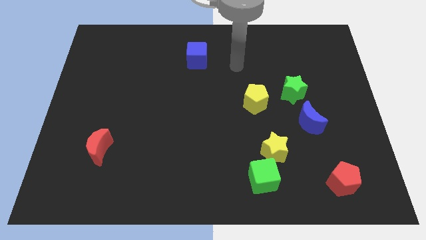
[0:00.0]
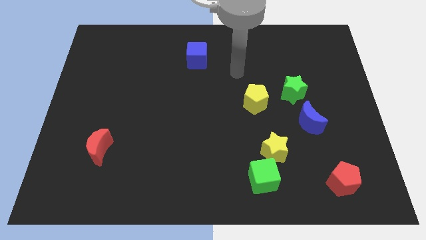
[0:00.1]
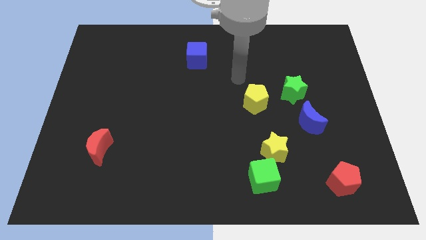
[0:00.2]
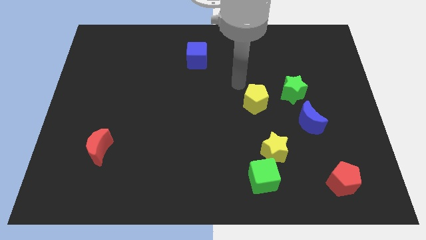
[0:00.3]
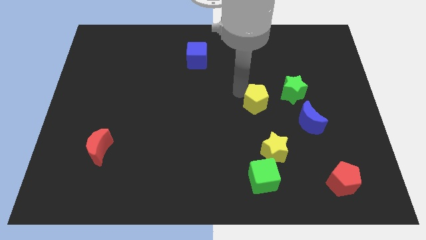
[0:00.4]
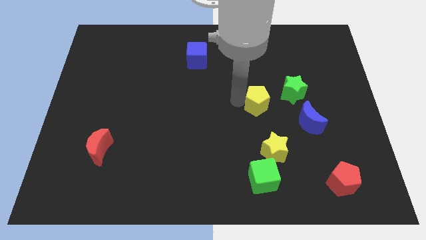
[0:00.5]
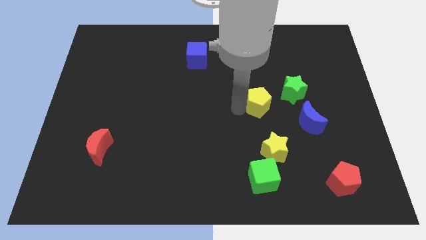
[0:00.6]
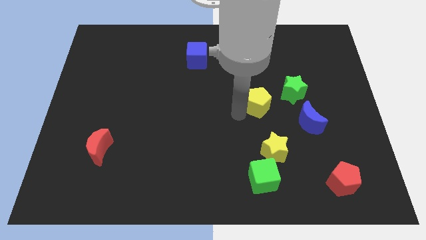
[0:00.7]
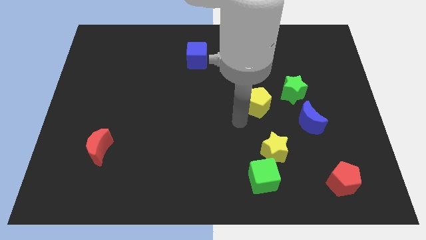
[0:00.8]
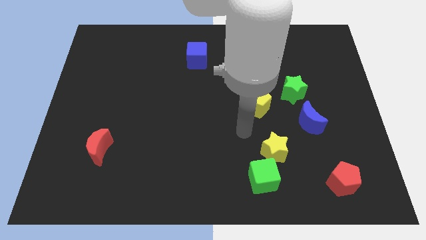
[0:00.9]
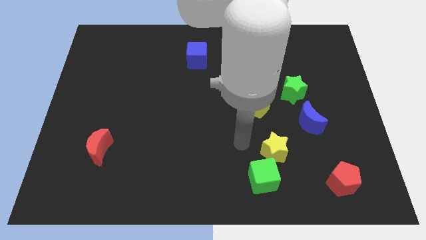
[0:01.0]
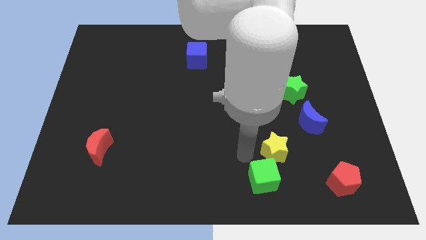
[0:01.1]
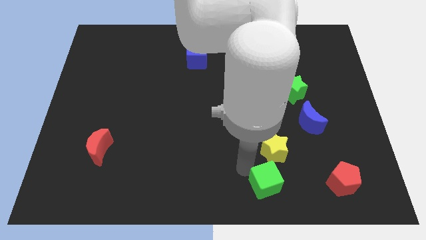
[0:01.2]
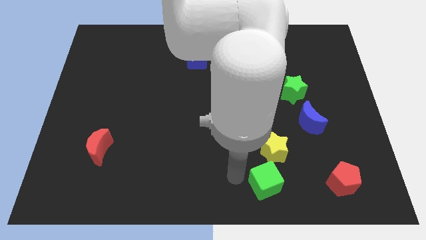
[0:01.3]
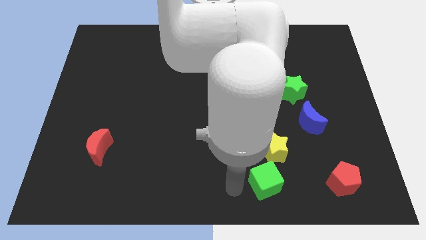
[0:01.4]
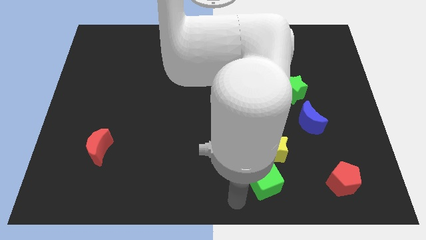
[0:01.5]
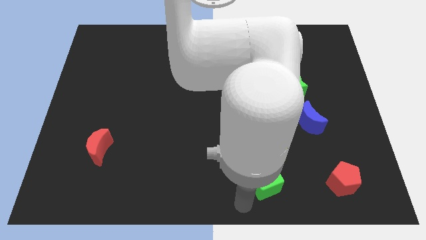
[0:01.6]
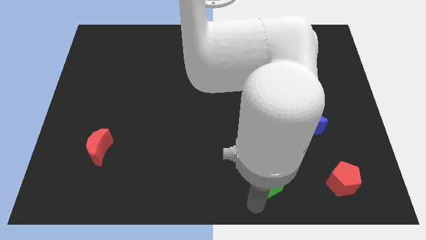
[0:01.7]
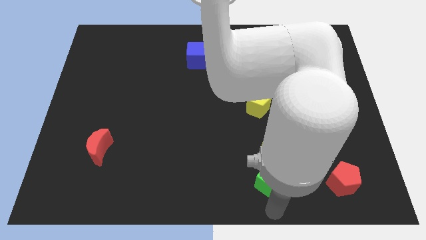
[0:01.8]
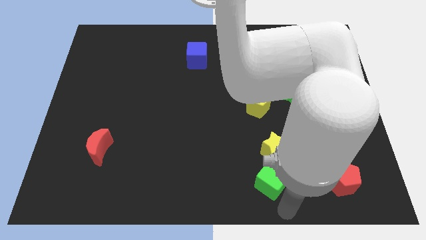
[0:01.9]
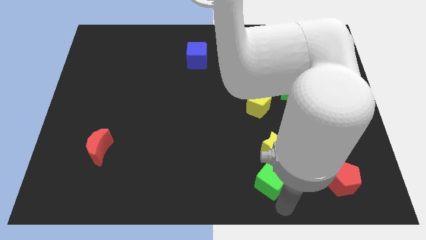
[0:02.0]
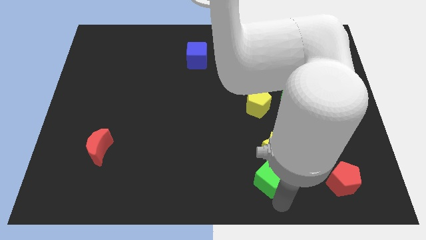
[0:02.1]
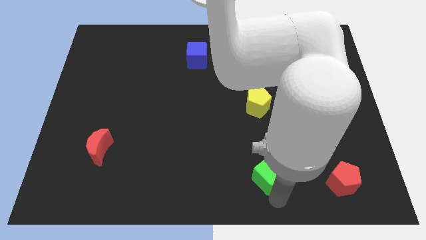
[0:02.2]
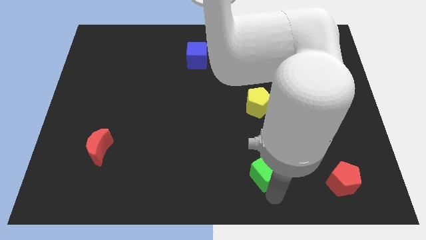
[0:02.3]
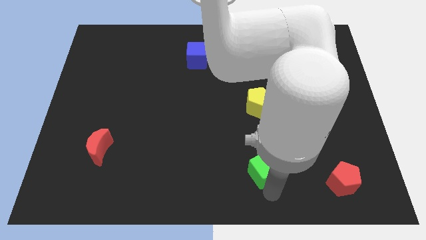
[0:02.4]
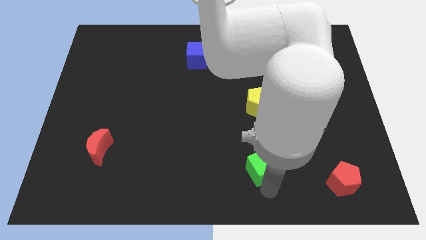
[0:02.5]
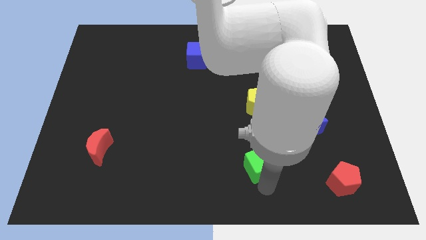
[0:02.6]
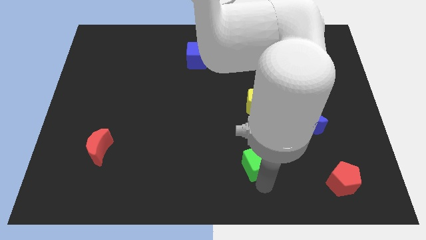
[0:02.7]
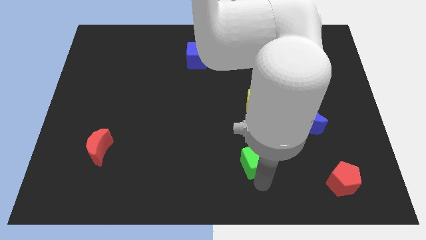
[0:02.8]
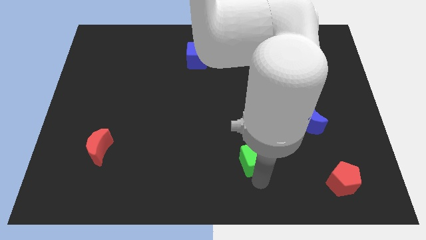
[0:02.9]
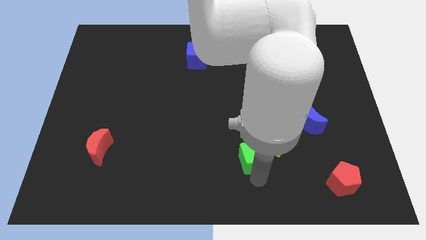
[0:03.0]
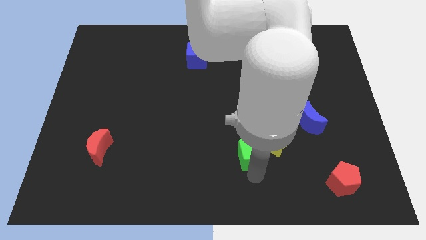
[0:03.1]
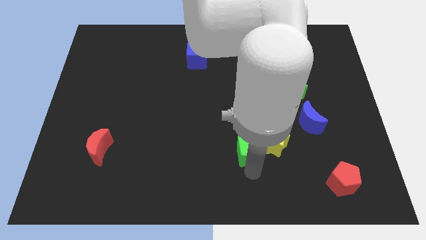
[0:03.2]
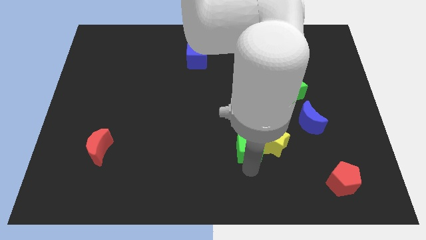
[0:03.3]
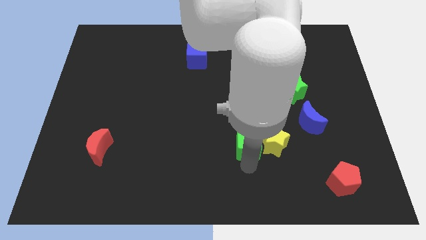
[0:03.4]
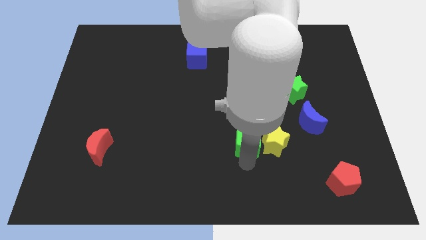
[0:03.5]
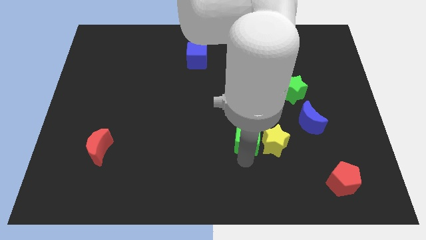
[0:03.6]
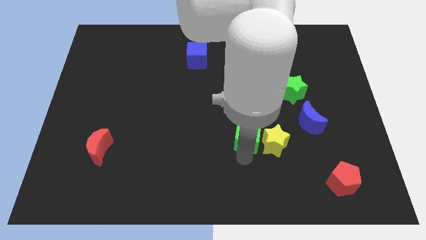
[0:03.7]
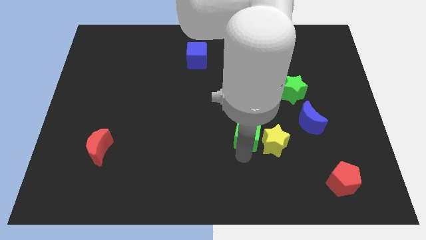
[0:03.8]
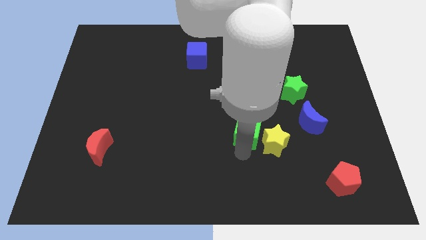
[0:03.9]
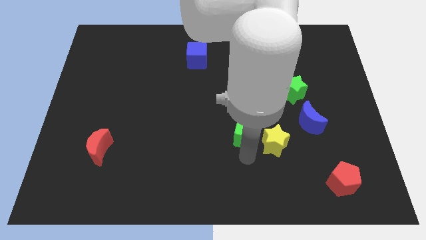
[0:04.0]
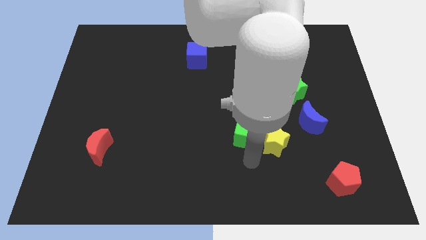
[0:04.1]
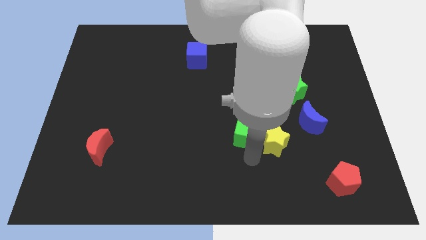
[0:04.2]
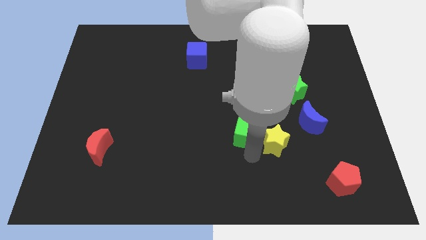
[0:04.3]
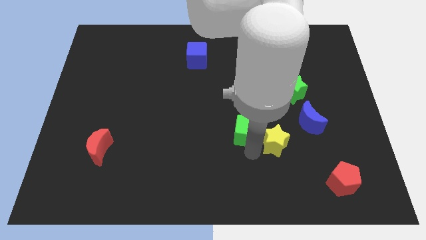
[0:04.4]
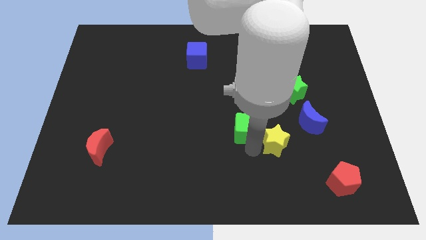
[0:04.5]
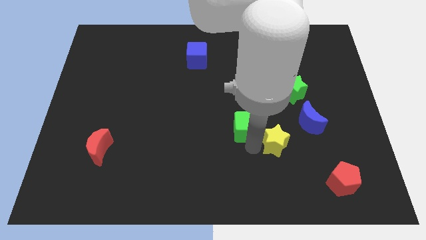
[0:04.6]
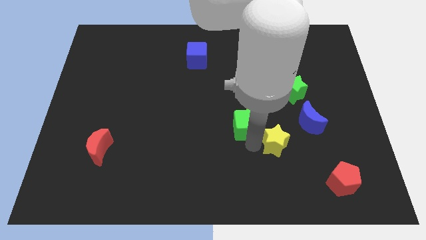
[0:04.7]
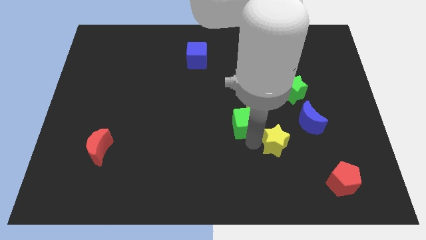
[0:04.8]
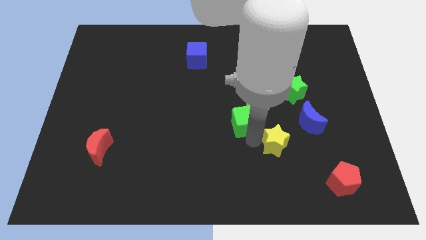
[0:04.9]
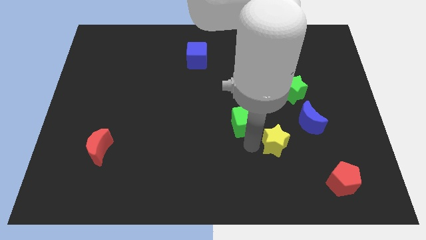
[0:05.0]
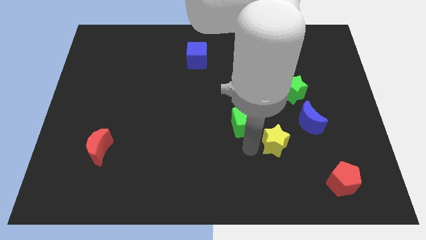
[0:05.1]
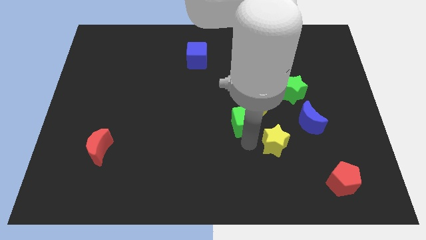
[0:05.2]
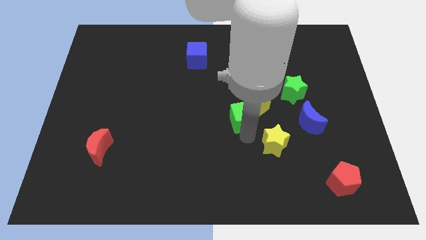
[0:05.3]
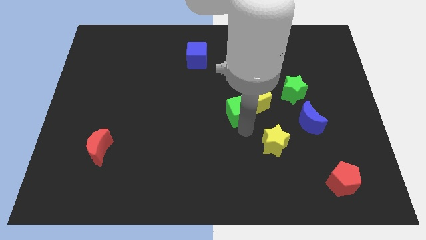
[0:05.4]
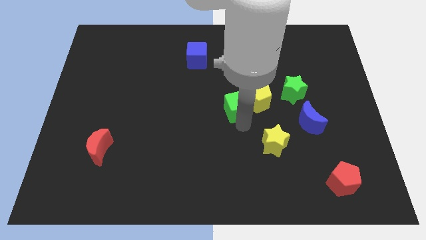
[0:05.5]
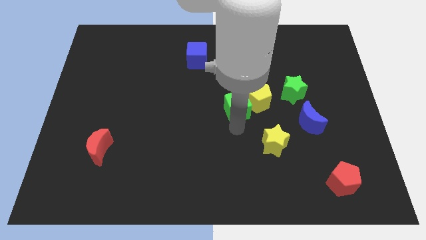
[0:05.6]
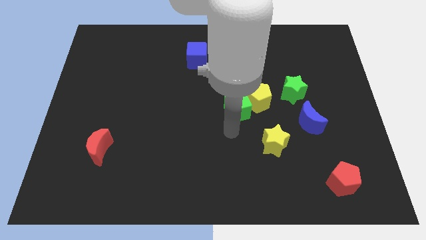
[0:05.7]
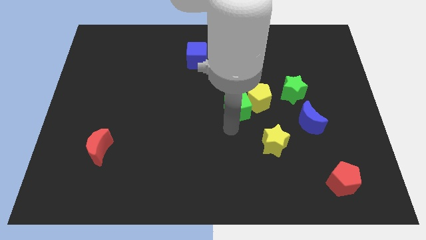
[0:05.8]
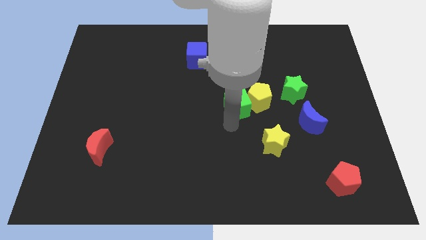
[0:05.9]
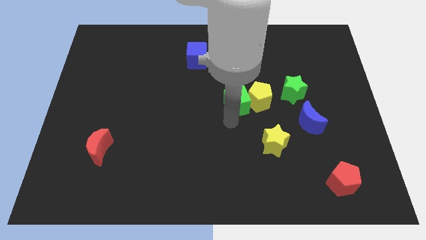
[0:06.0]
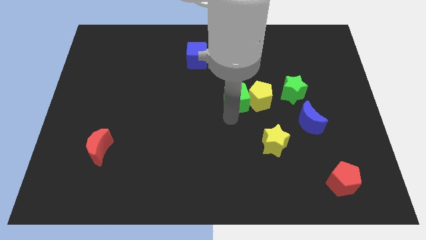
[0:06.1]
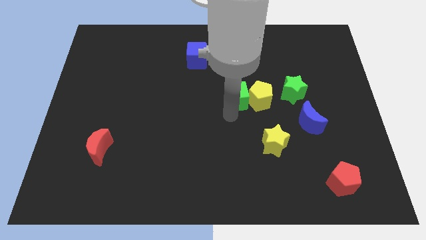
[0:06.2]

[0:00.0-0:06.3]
push the green cube up

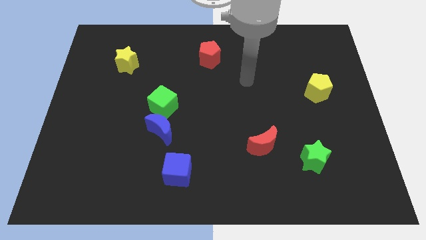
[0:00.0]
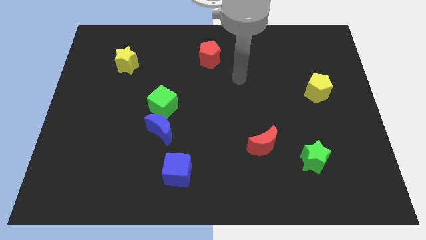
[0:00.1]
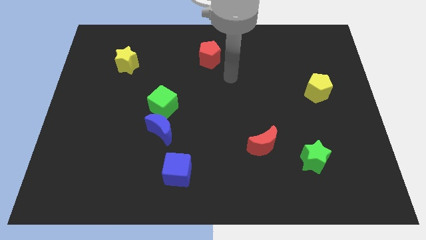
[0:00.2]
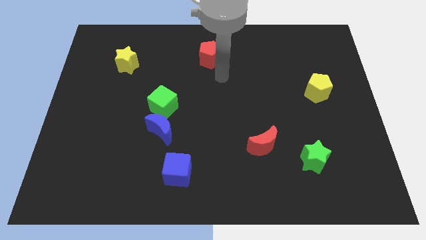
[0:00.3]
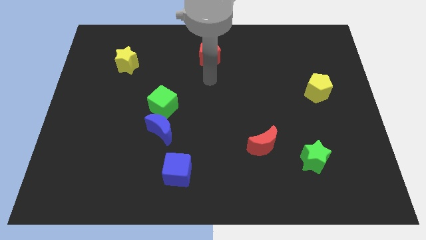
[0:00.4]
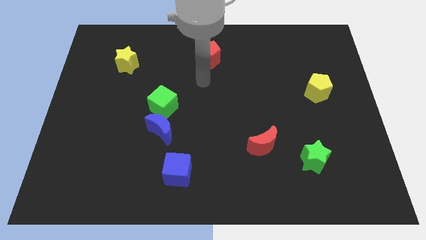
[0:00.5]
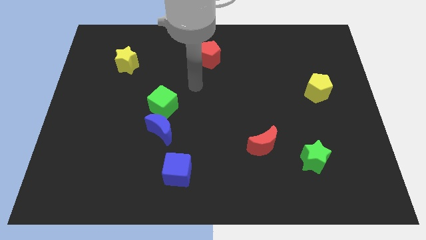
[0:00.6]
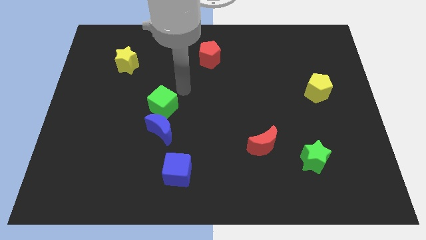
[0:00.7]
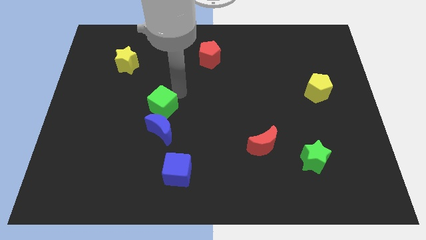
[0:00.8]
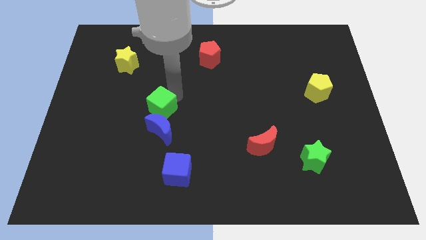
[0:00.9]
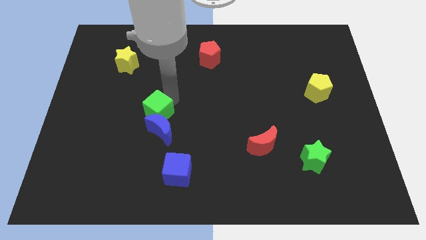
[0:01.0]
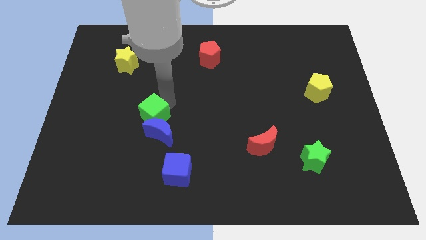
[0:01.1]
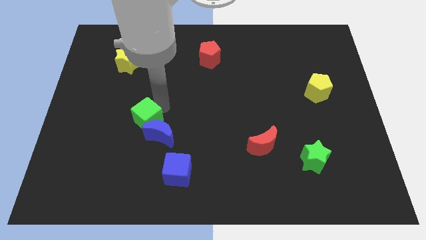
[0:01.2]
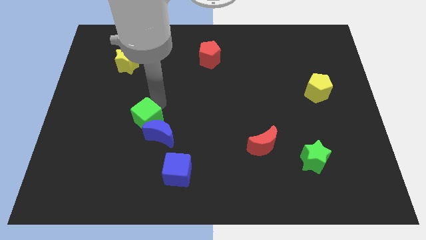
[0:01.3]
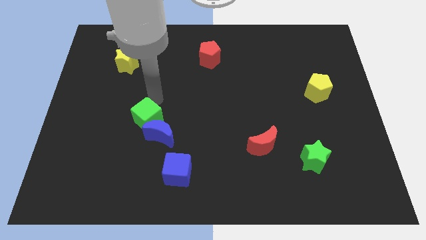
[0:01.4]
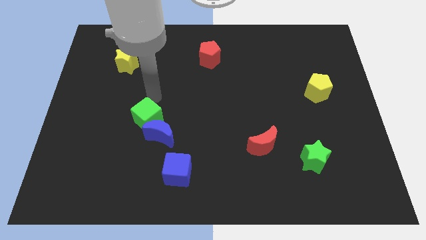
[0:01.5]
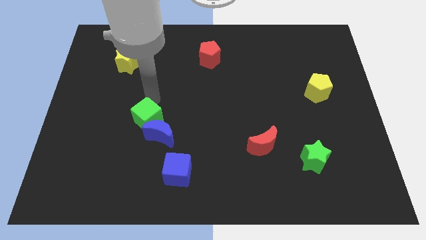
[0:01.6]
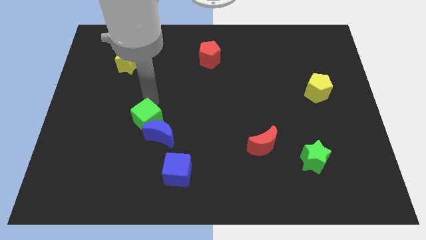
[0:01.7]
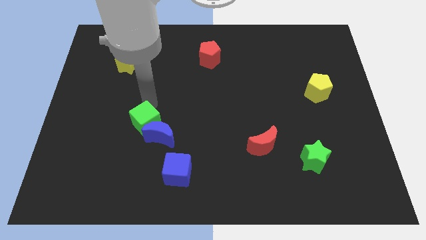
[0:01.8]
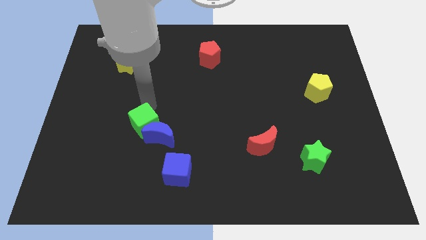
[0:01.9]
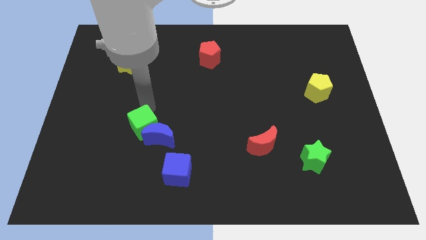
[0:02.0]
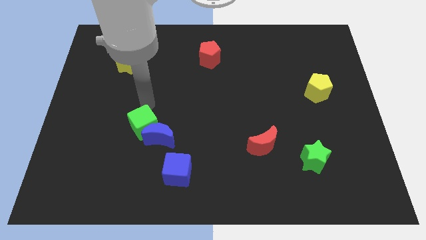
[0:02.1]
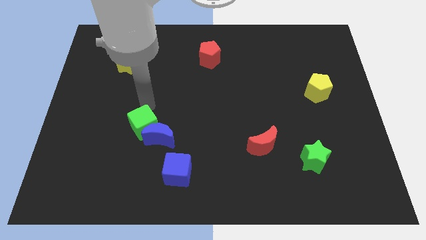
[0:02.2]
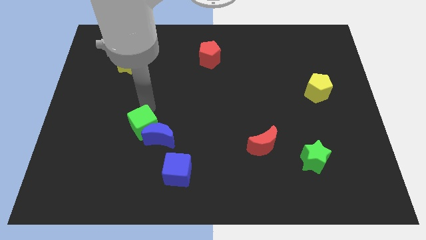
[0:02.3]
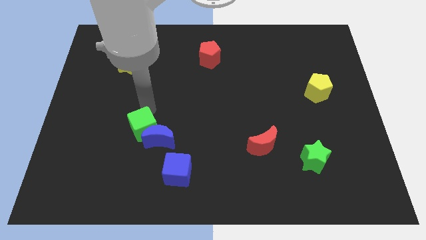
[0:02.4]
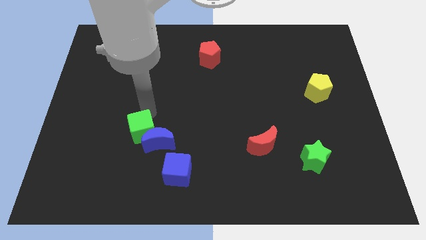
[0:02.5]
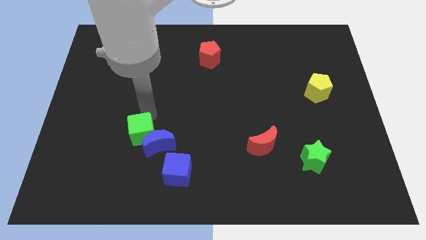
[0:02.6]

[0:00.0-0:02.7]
slightly slide the green cube down
